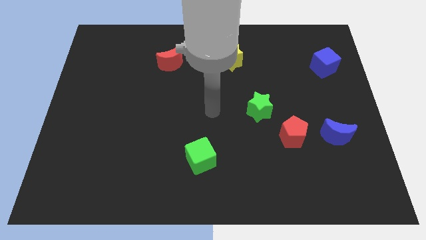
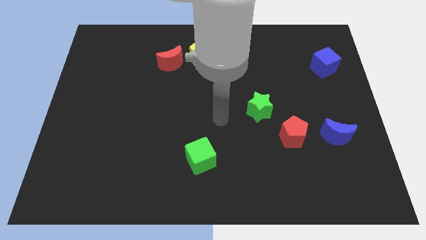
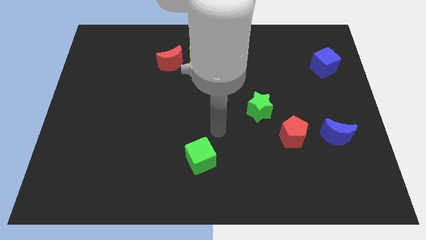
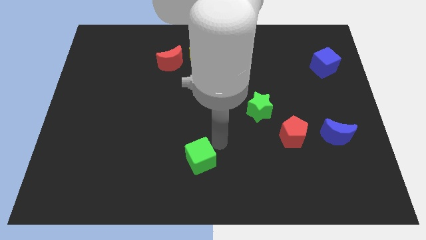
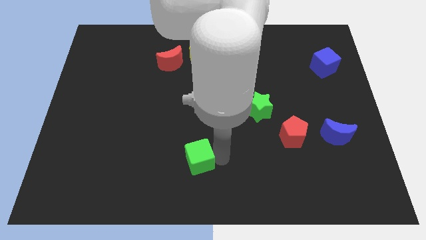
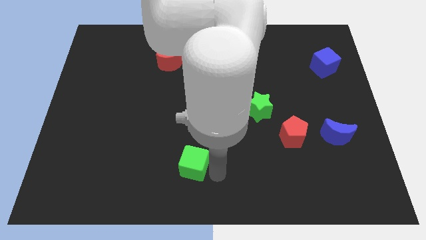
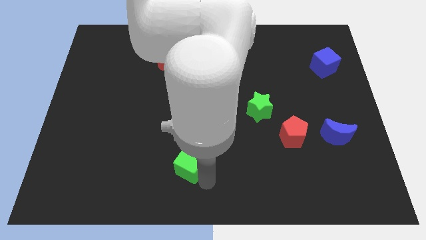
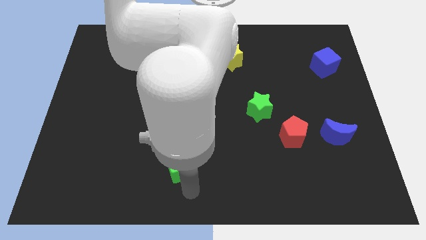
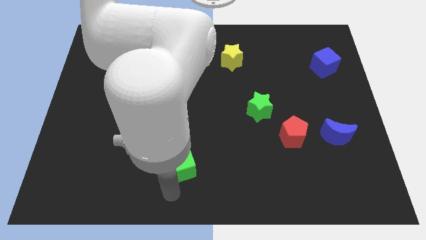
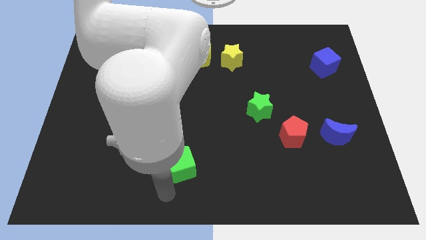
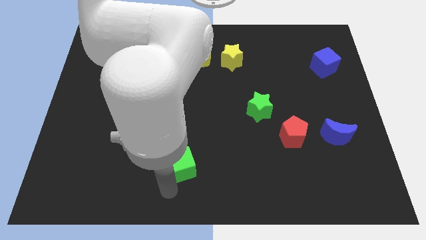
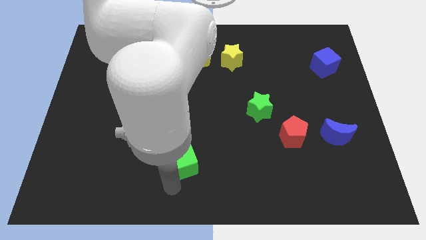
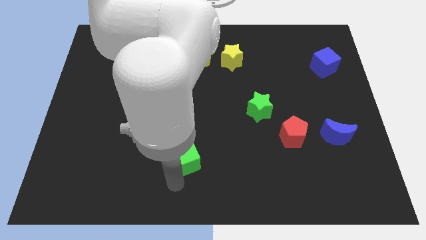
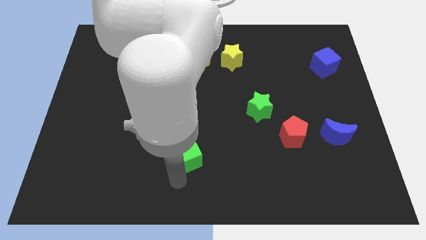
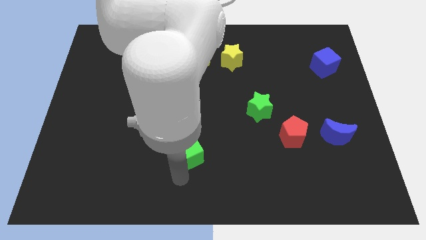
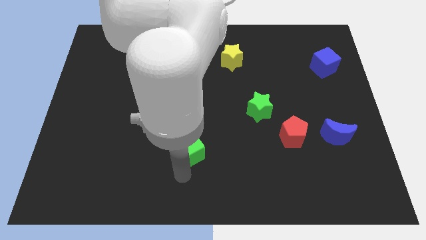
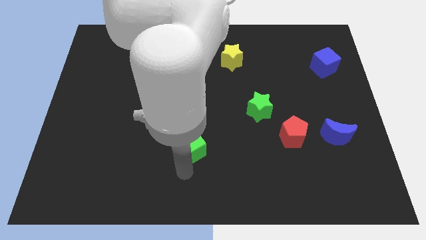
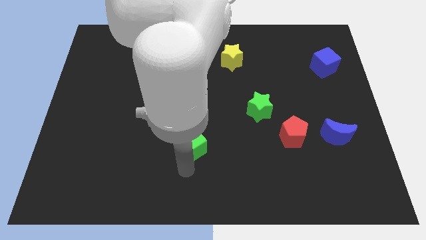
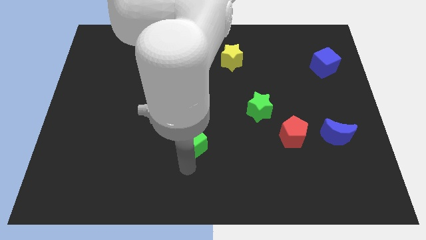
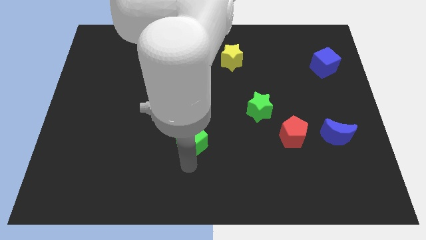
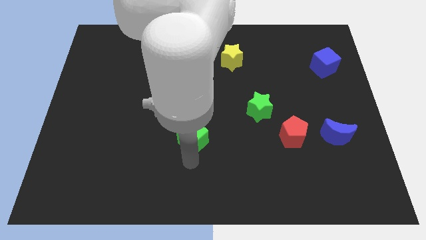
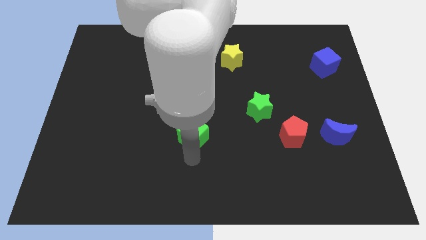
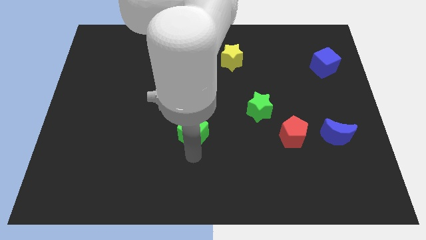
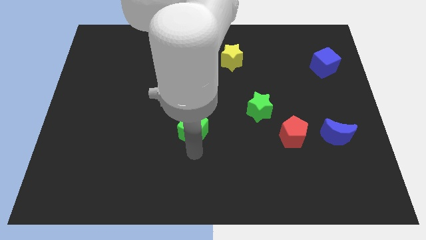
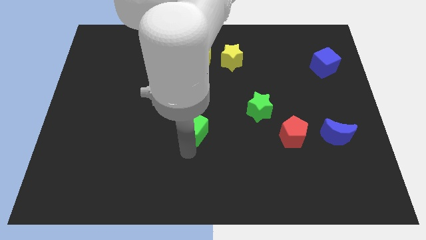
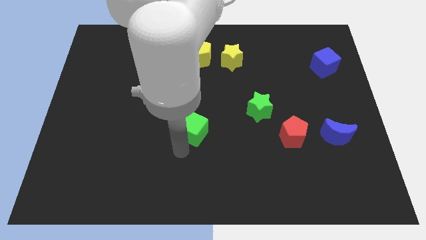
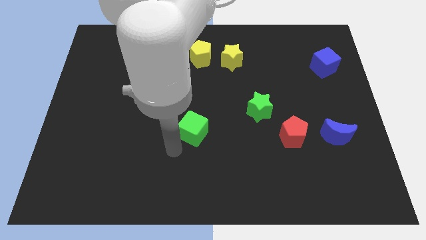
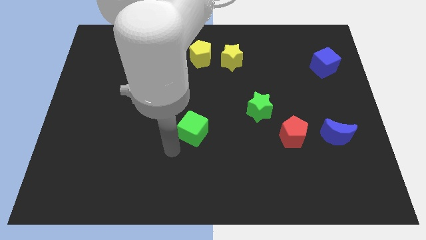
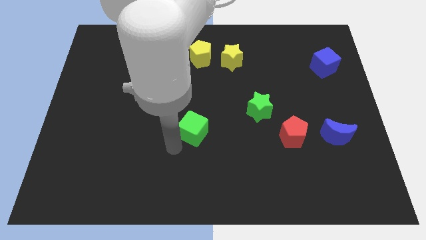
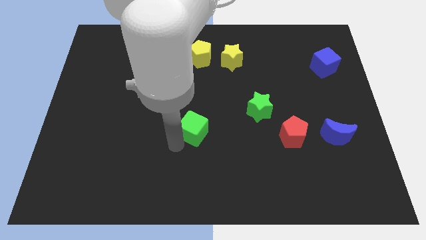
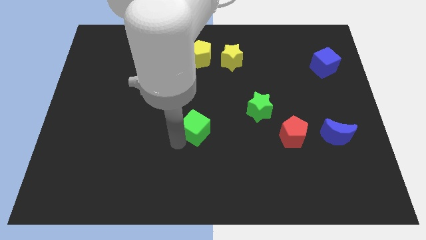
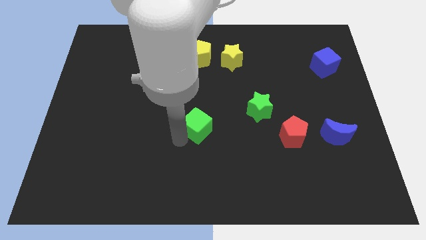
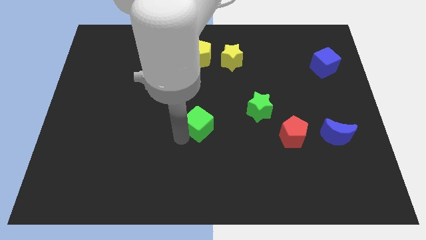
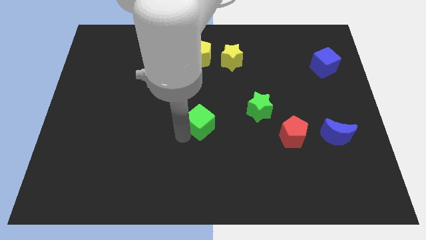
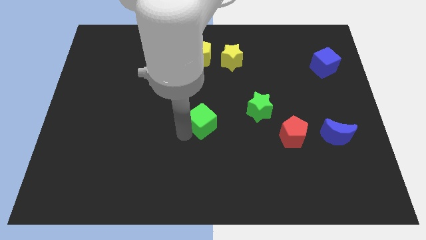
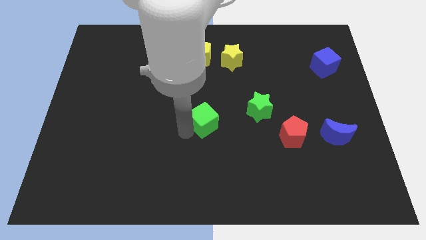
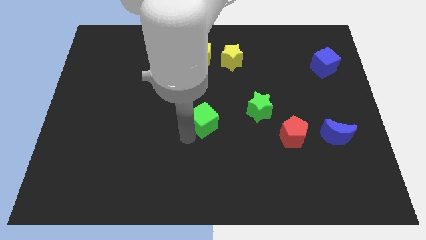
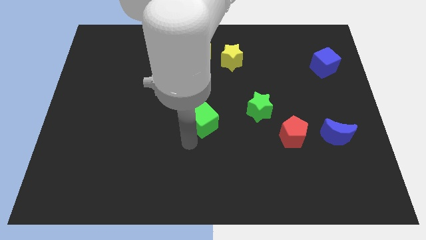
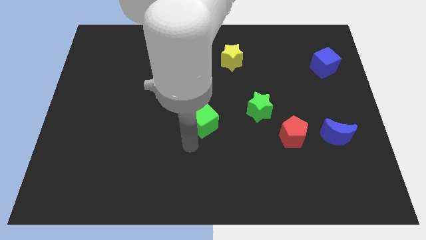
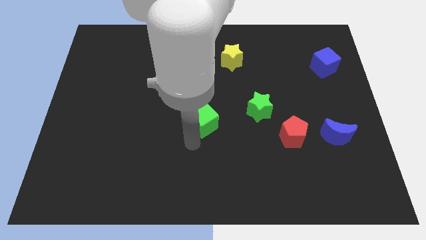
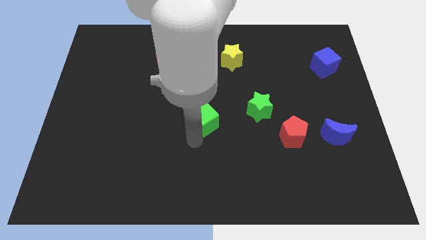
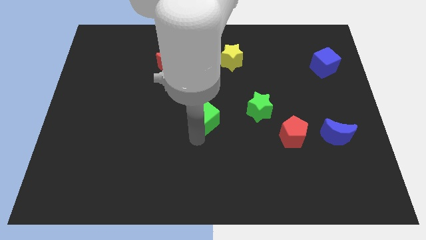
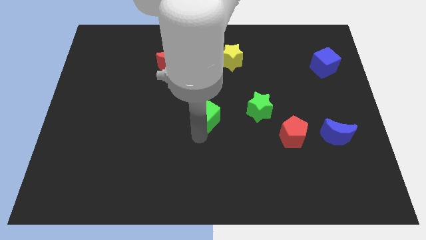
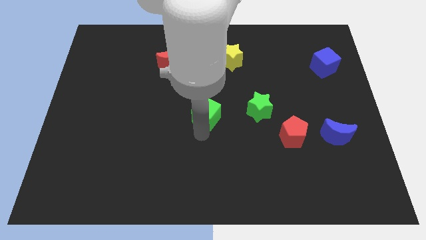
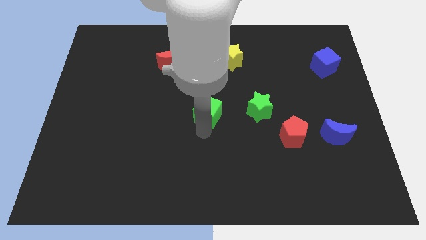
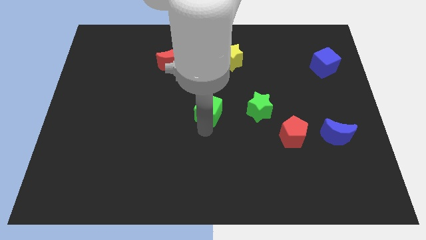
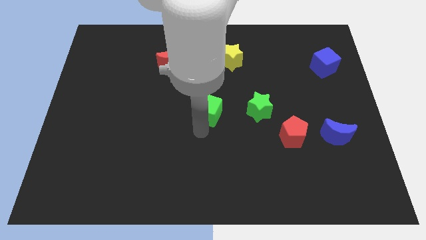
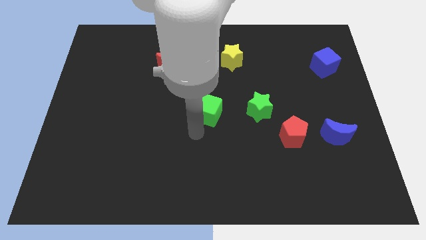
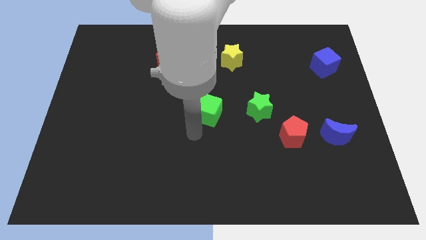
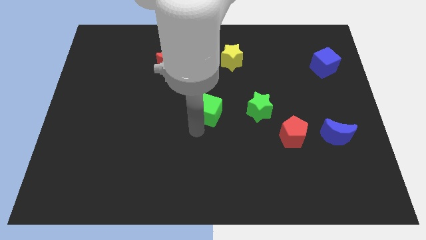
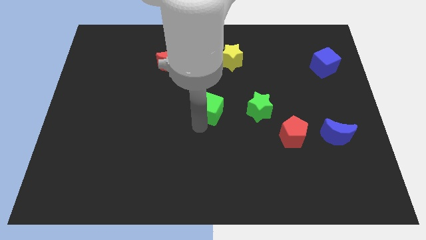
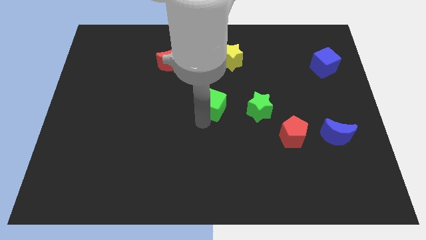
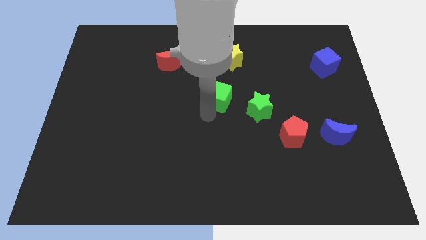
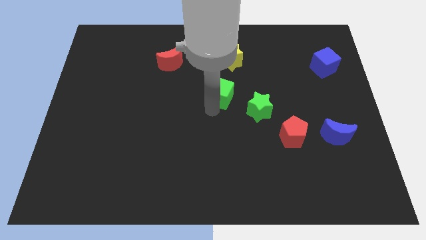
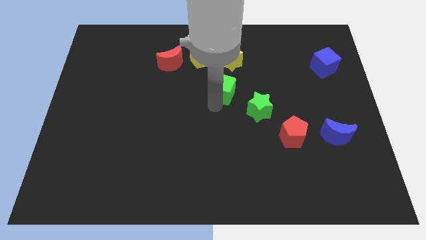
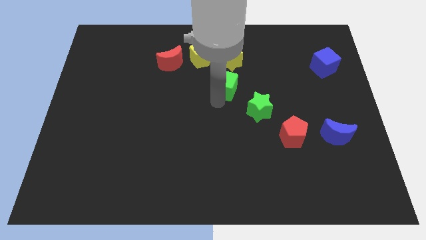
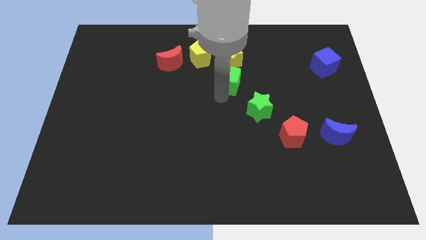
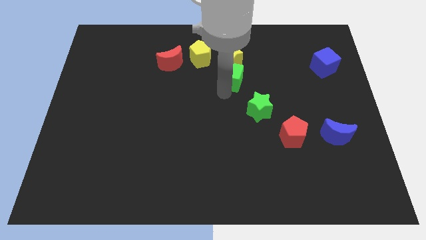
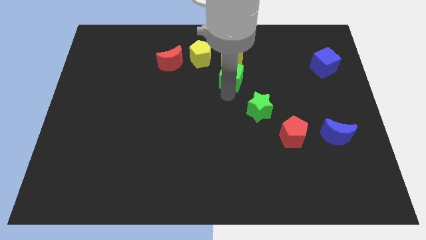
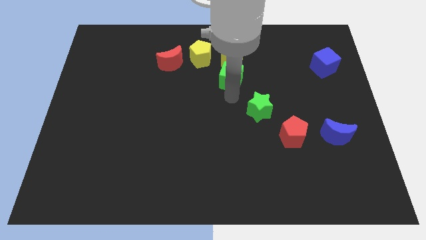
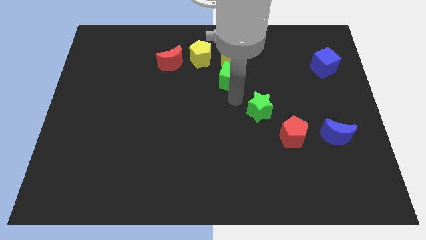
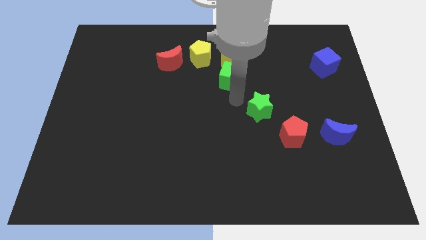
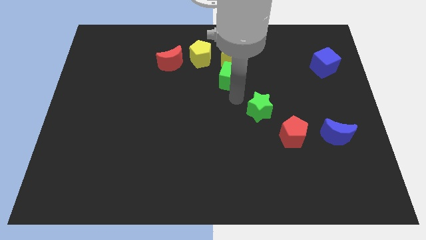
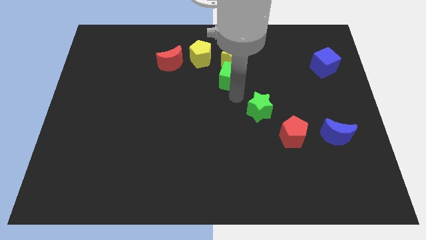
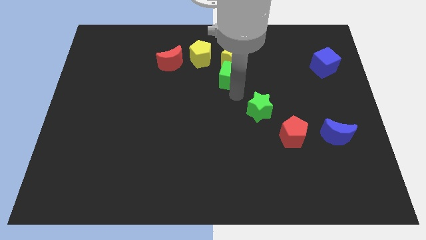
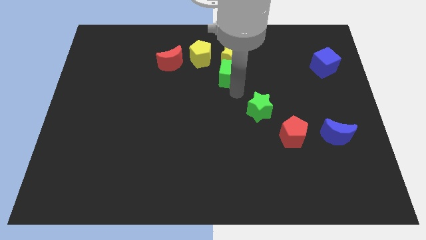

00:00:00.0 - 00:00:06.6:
put the green cube next to the yellow star

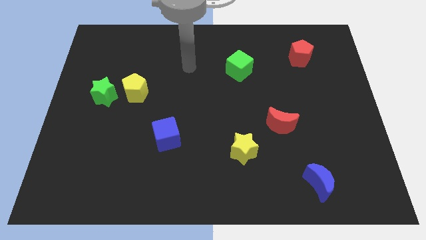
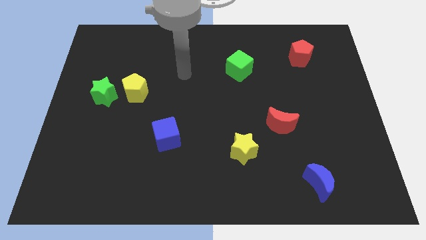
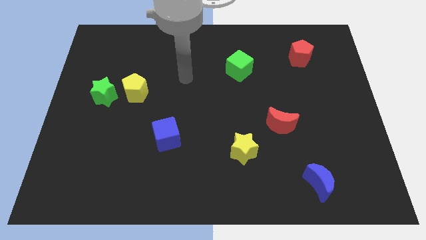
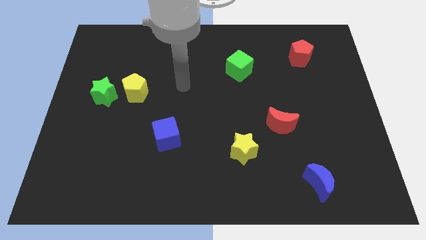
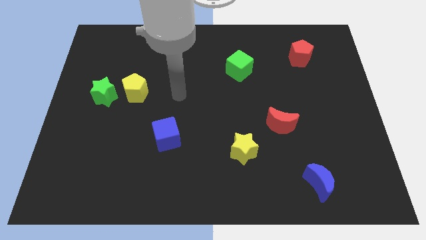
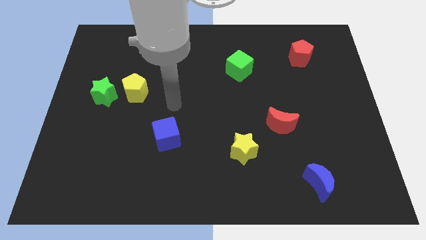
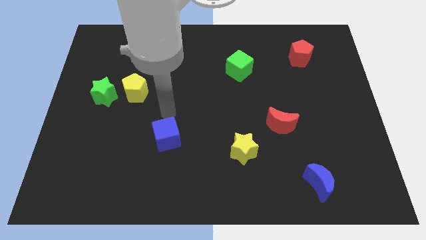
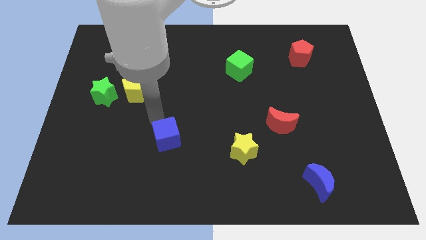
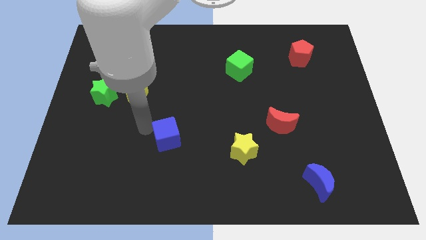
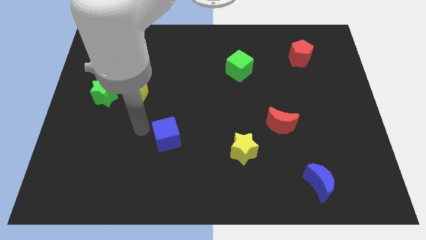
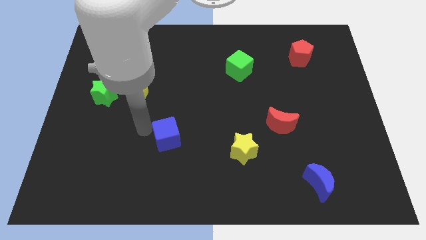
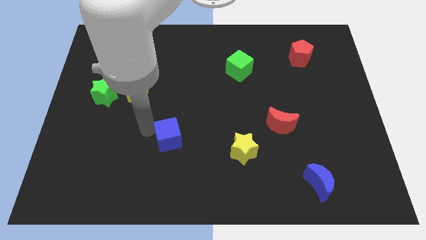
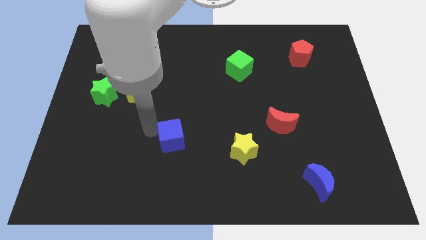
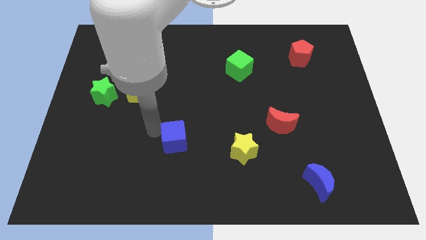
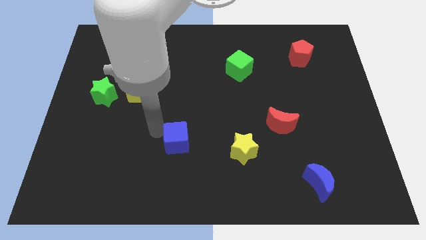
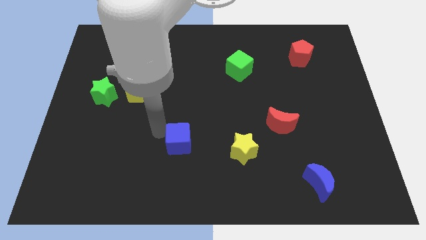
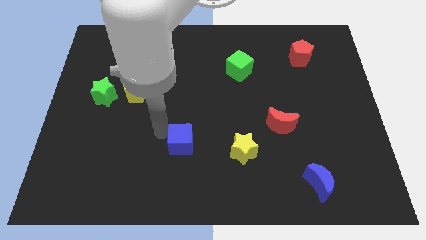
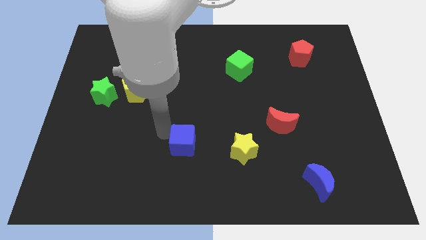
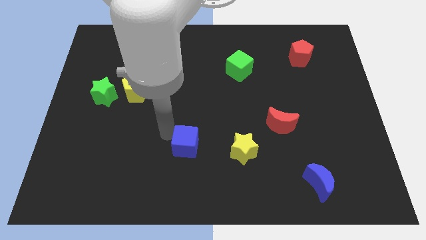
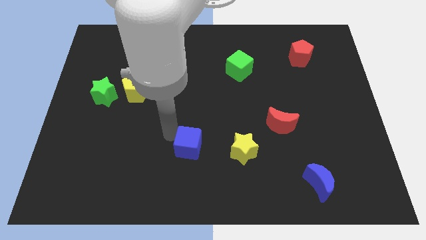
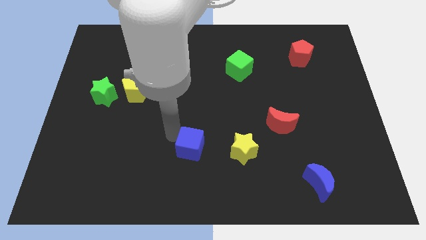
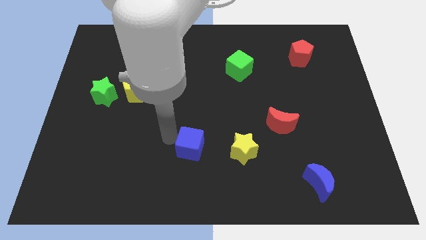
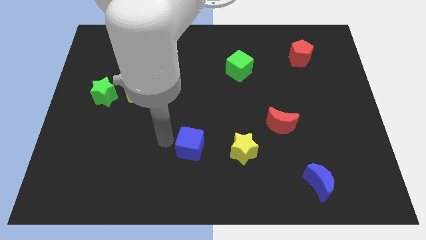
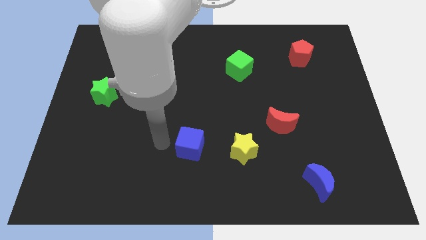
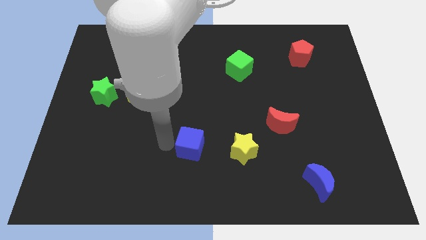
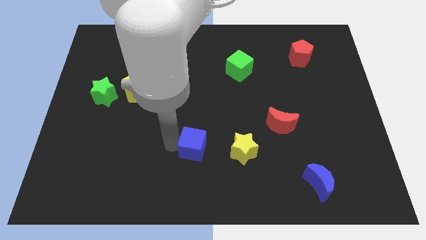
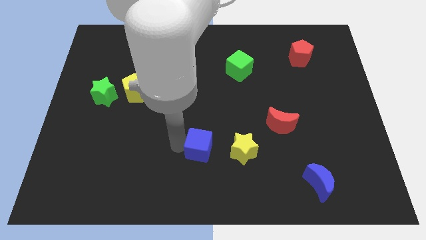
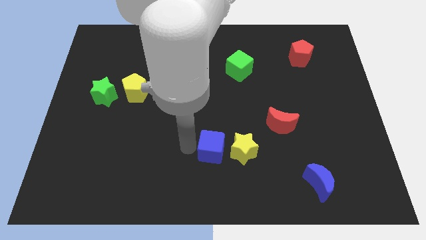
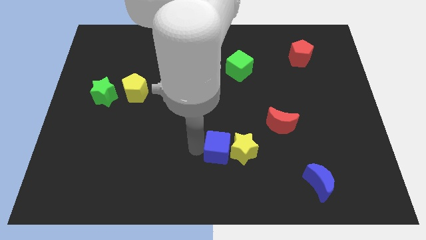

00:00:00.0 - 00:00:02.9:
put the blue cube close to the yellow star
